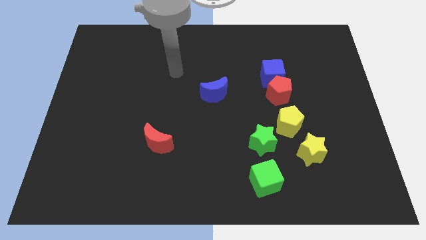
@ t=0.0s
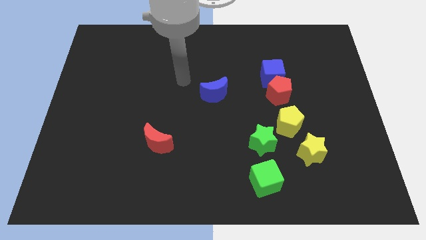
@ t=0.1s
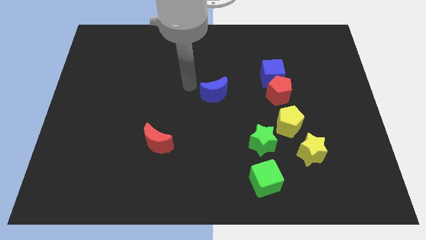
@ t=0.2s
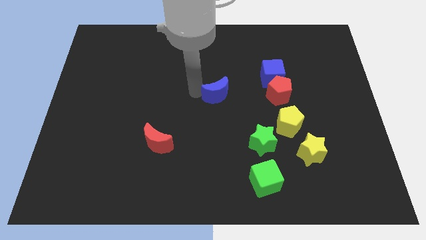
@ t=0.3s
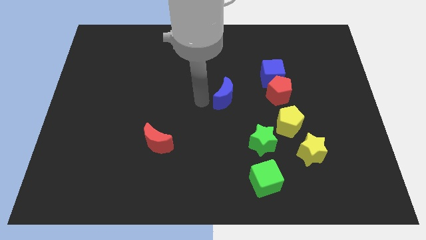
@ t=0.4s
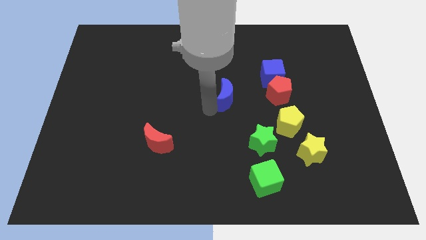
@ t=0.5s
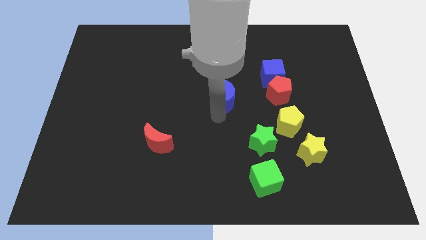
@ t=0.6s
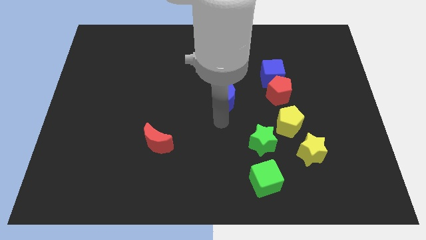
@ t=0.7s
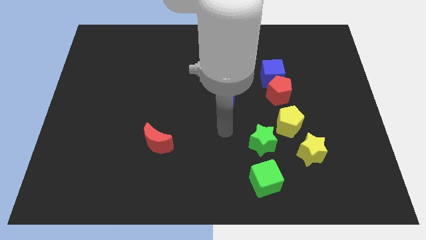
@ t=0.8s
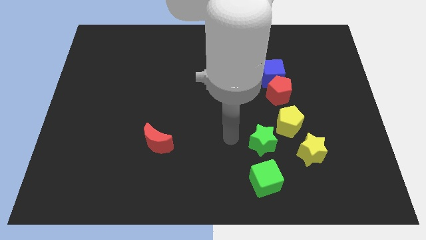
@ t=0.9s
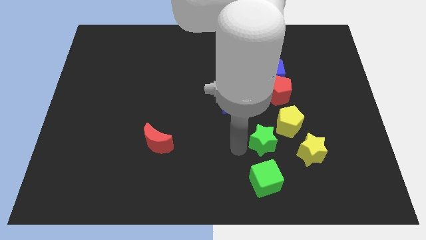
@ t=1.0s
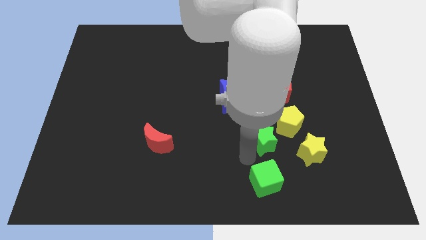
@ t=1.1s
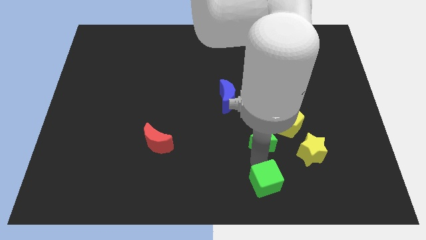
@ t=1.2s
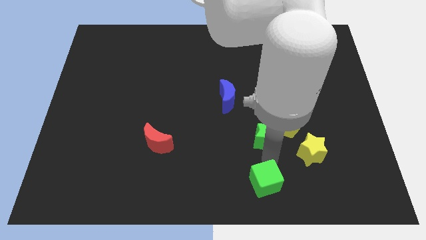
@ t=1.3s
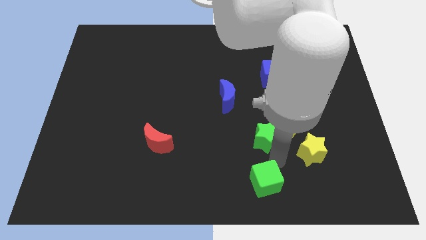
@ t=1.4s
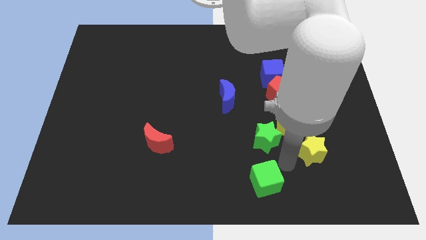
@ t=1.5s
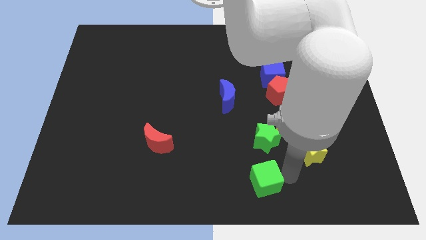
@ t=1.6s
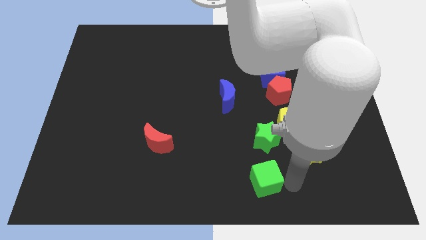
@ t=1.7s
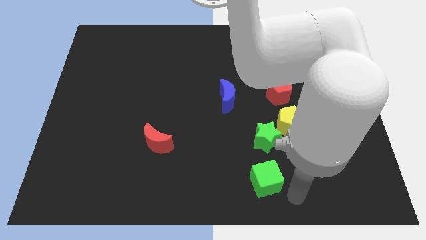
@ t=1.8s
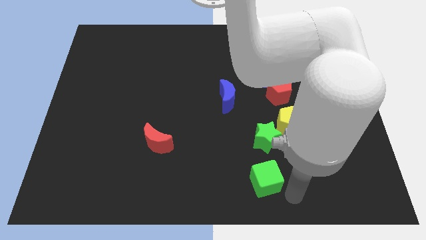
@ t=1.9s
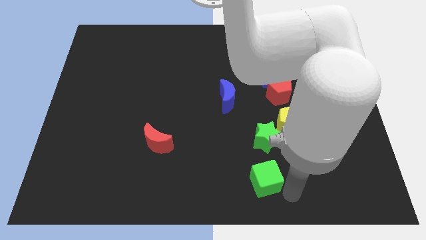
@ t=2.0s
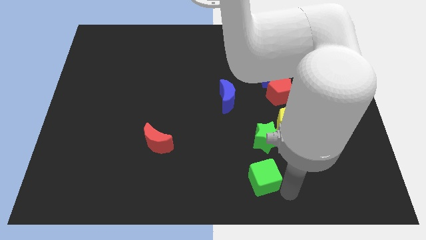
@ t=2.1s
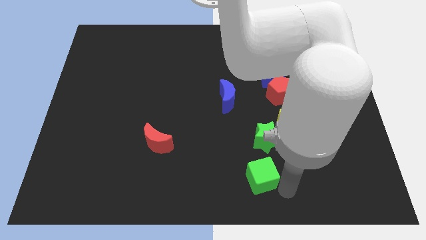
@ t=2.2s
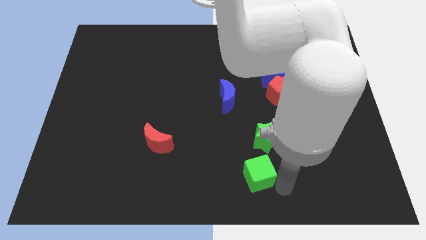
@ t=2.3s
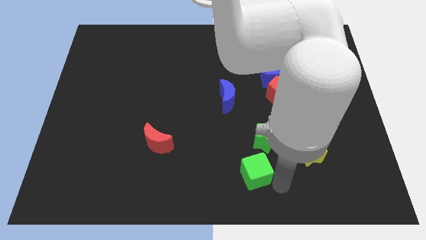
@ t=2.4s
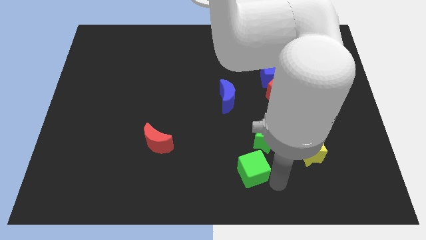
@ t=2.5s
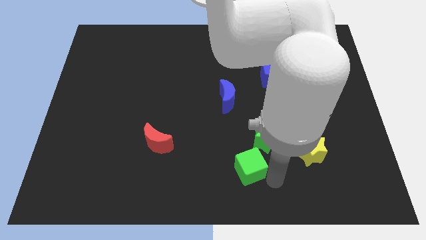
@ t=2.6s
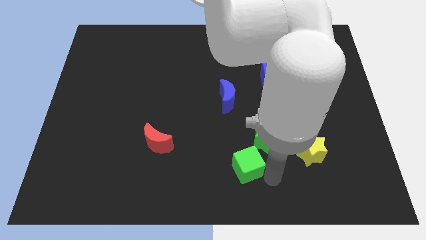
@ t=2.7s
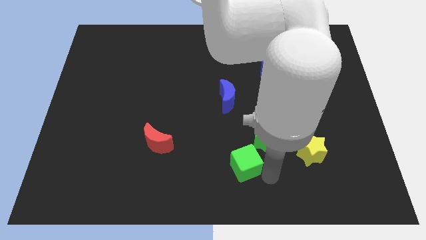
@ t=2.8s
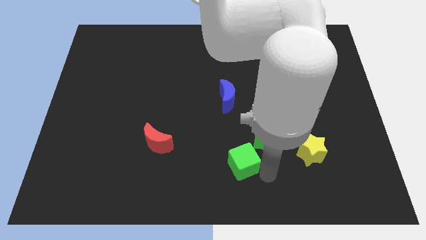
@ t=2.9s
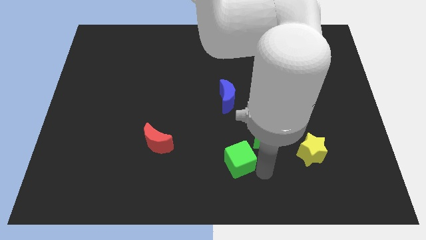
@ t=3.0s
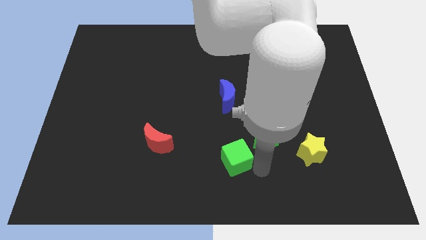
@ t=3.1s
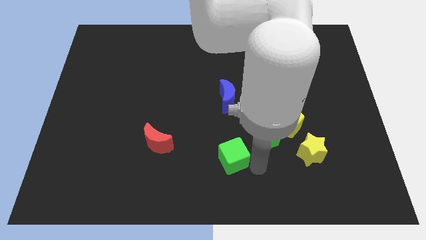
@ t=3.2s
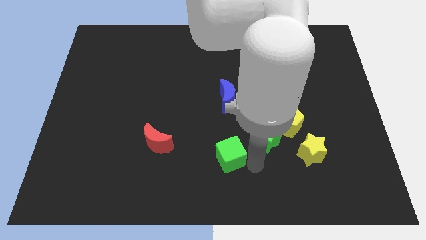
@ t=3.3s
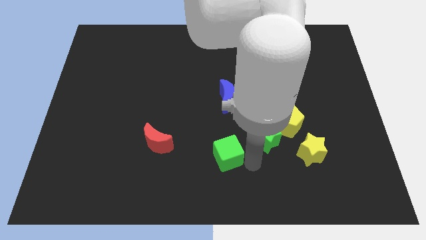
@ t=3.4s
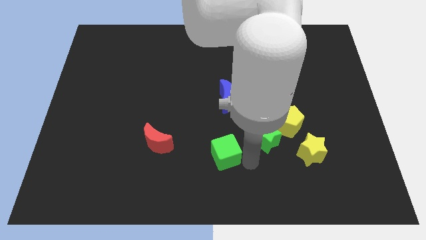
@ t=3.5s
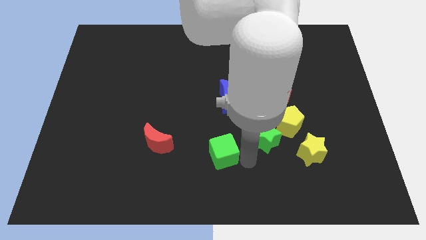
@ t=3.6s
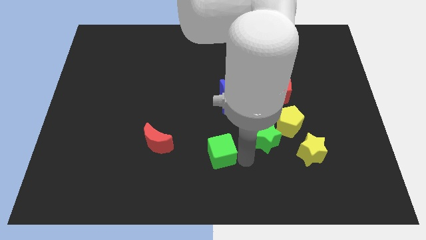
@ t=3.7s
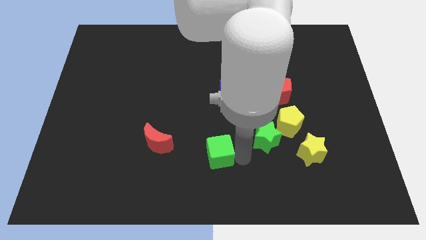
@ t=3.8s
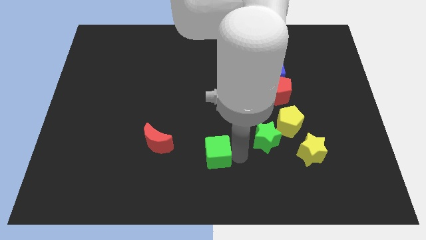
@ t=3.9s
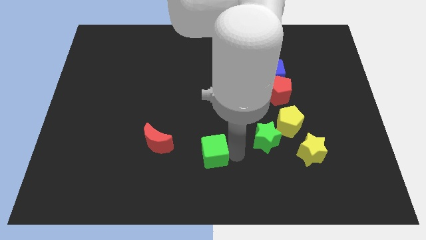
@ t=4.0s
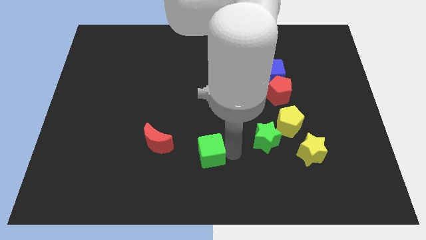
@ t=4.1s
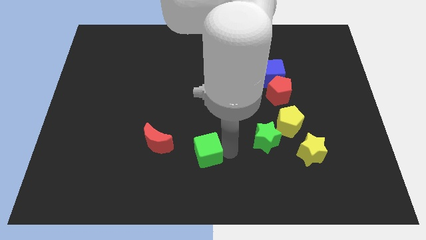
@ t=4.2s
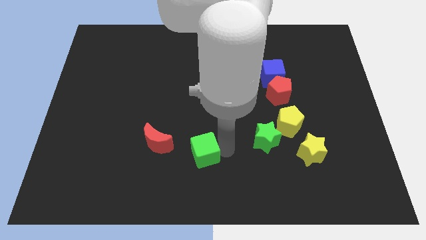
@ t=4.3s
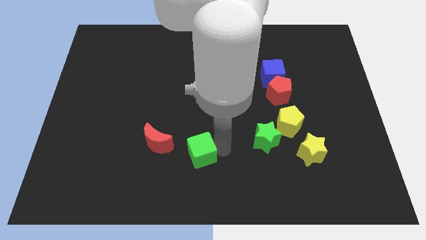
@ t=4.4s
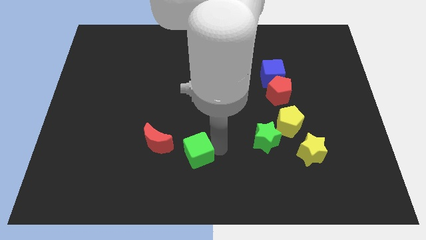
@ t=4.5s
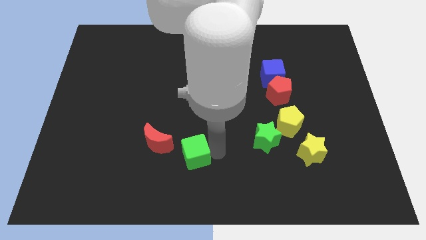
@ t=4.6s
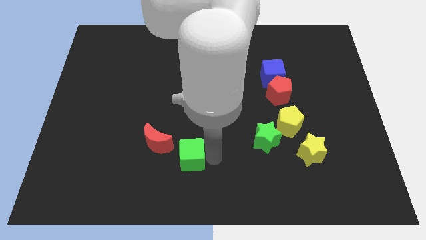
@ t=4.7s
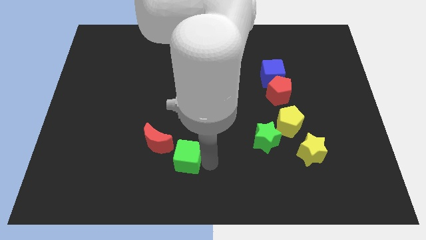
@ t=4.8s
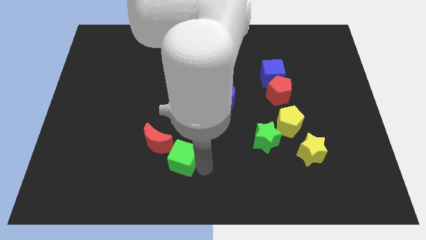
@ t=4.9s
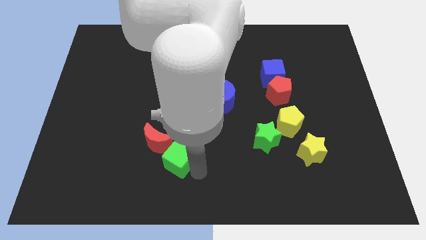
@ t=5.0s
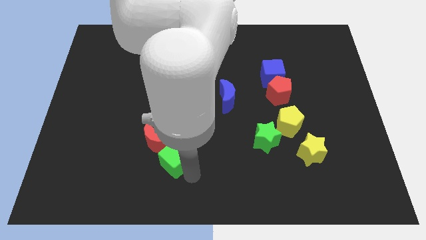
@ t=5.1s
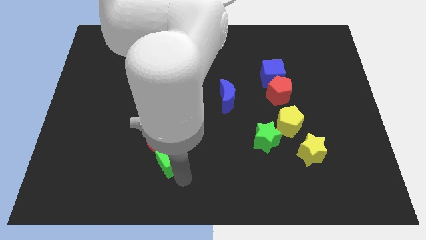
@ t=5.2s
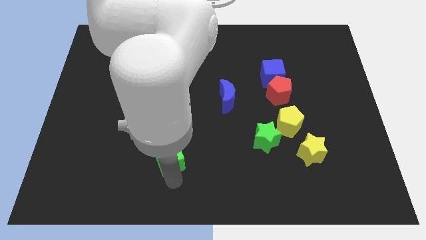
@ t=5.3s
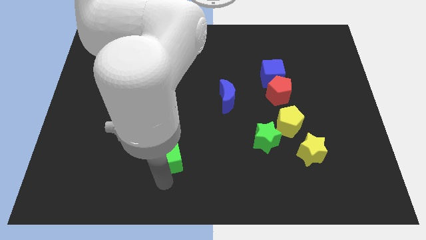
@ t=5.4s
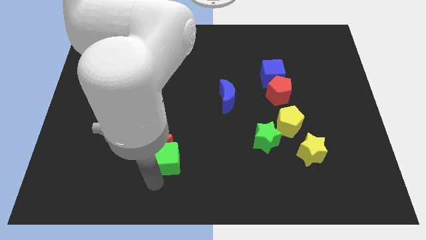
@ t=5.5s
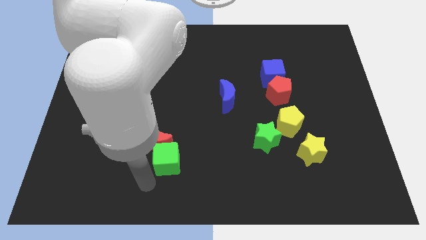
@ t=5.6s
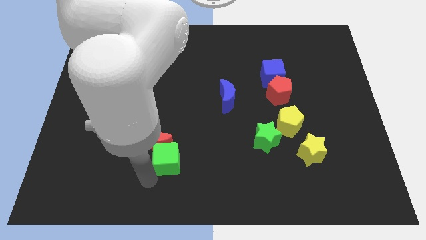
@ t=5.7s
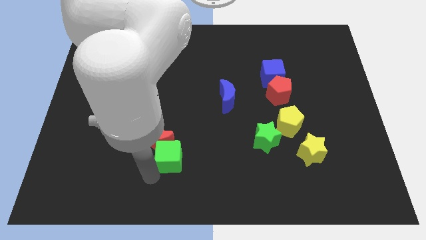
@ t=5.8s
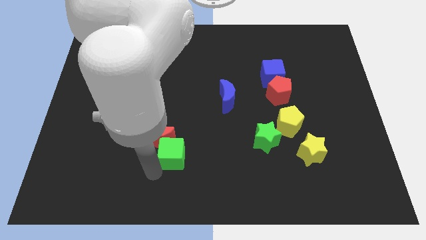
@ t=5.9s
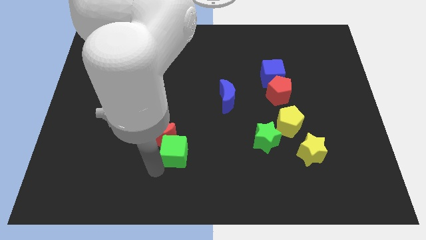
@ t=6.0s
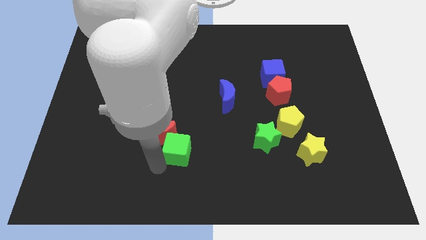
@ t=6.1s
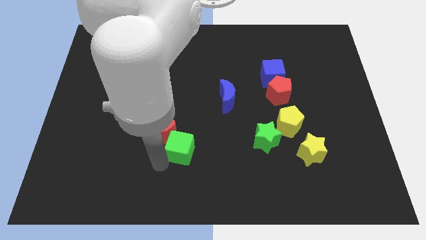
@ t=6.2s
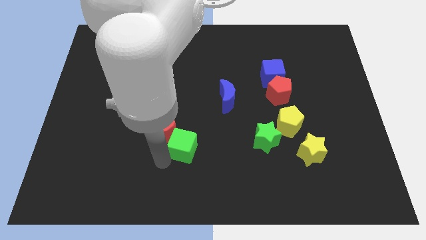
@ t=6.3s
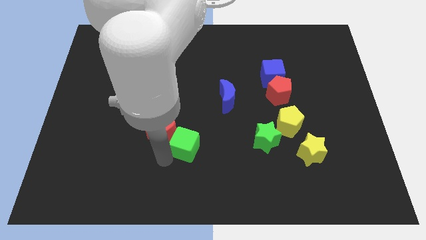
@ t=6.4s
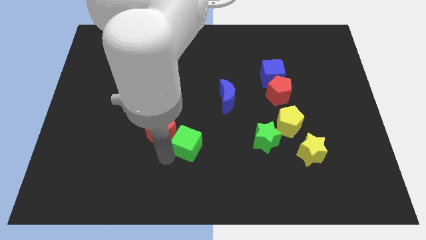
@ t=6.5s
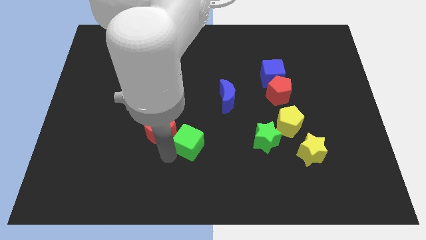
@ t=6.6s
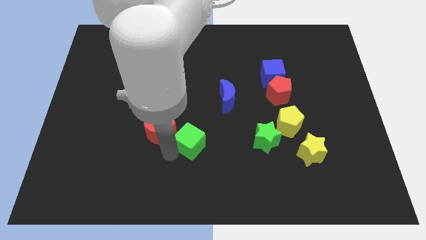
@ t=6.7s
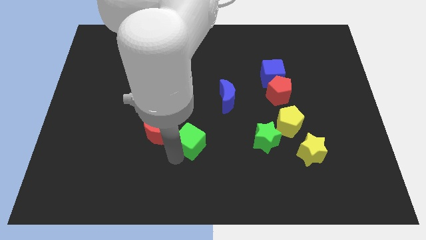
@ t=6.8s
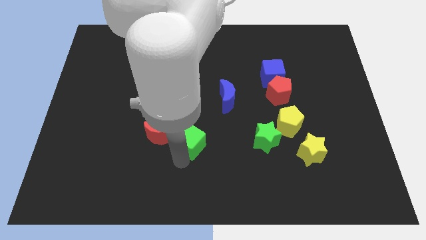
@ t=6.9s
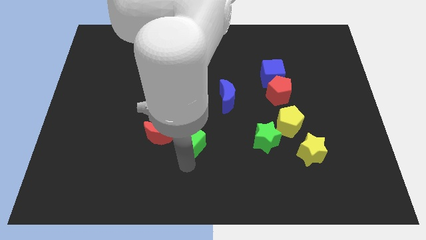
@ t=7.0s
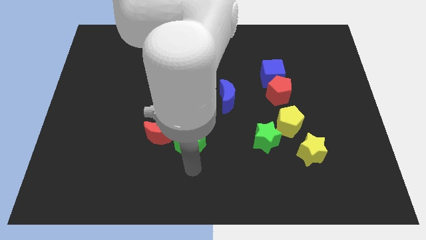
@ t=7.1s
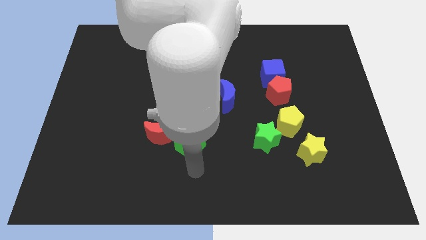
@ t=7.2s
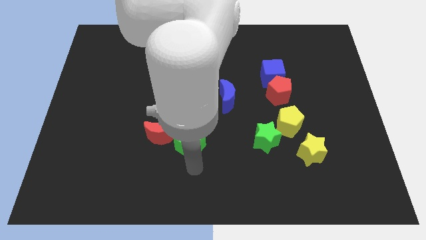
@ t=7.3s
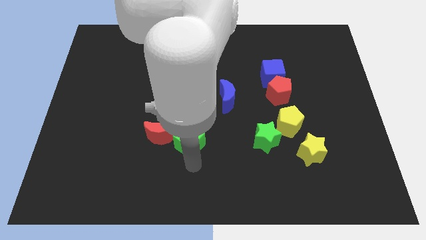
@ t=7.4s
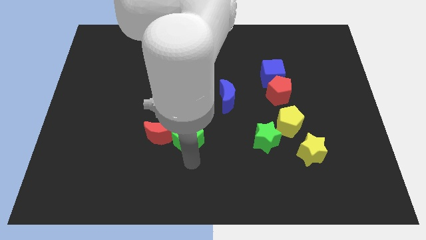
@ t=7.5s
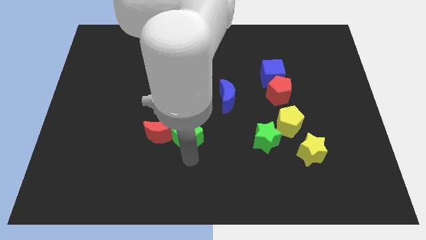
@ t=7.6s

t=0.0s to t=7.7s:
push the green cube to the top right of the red moon
